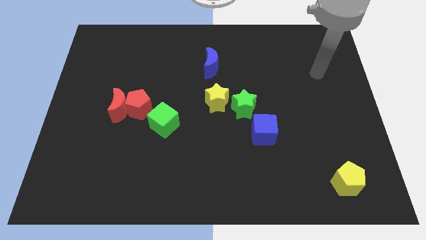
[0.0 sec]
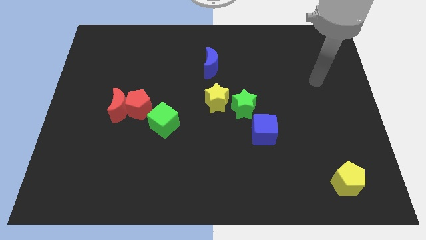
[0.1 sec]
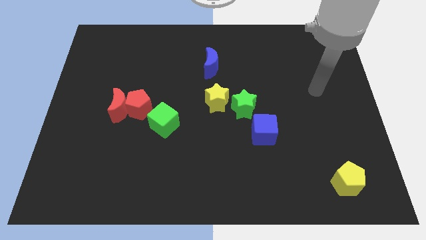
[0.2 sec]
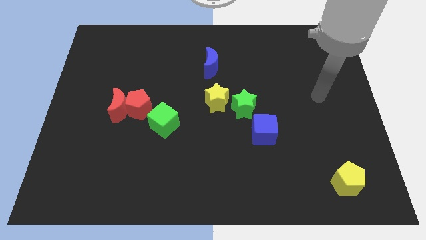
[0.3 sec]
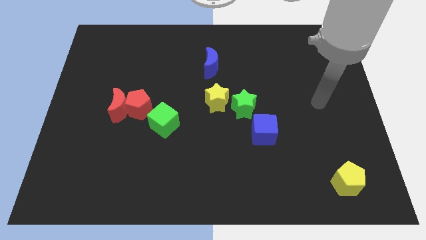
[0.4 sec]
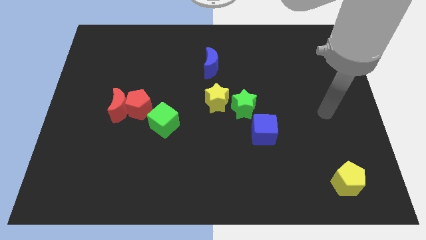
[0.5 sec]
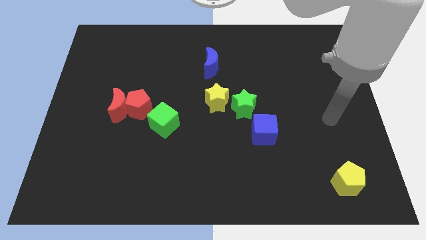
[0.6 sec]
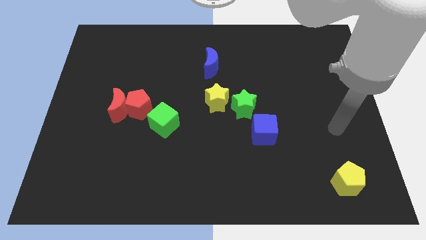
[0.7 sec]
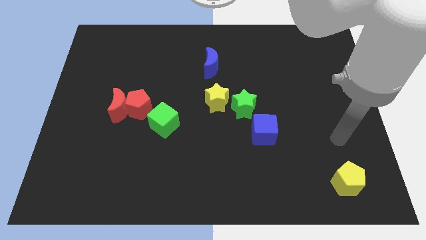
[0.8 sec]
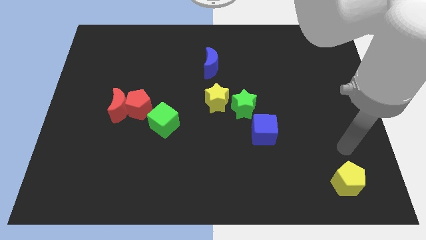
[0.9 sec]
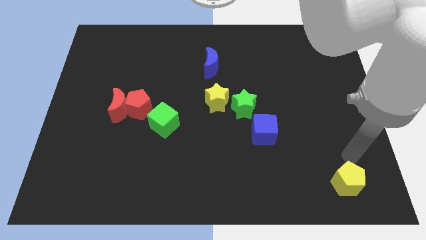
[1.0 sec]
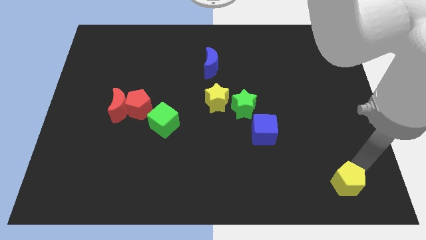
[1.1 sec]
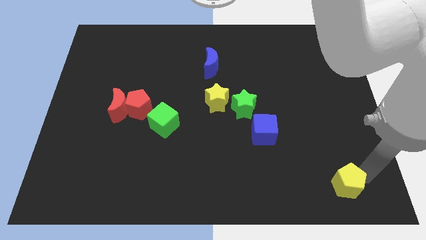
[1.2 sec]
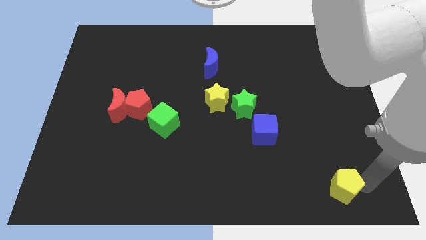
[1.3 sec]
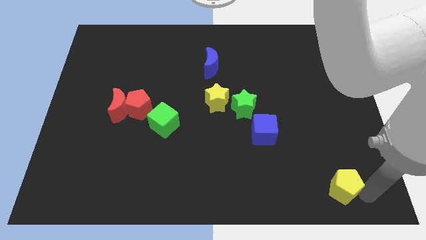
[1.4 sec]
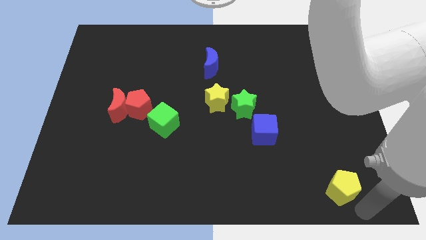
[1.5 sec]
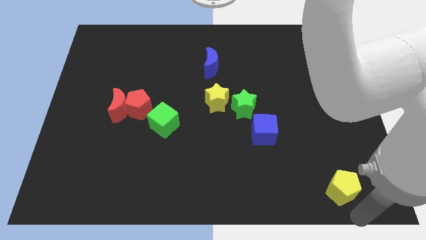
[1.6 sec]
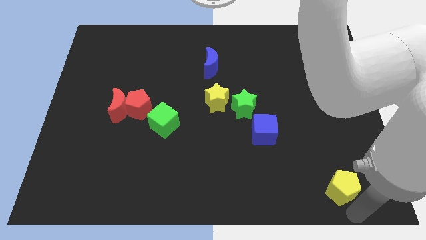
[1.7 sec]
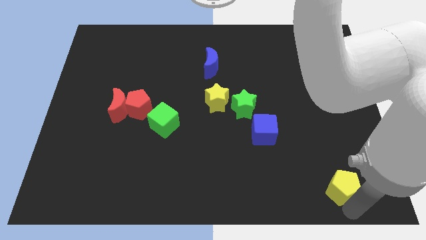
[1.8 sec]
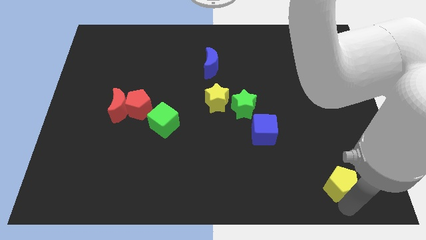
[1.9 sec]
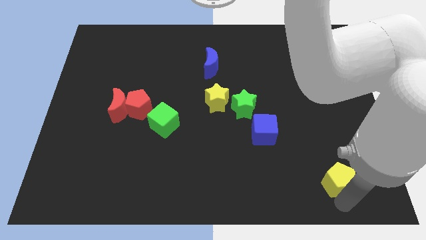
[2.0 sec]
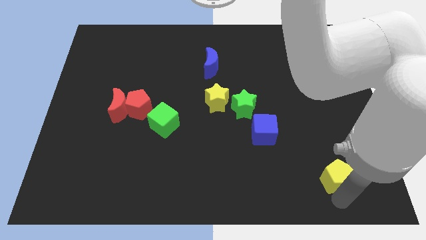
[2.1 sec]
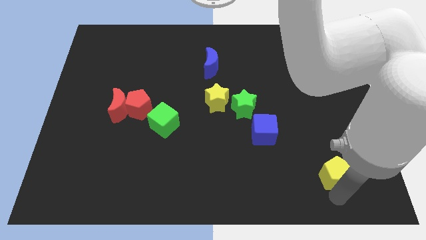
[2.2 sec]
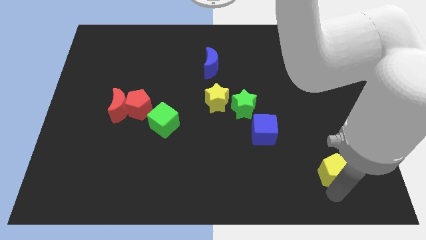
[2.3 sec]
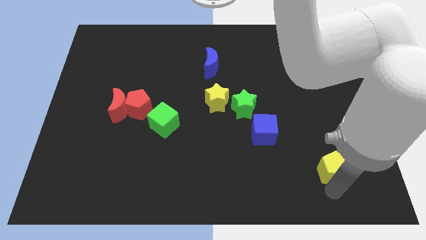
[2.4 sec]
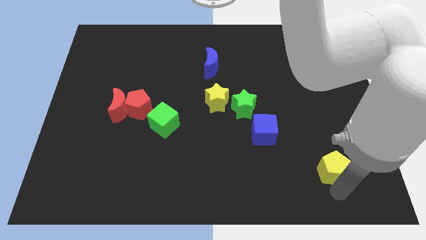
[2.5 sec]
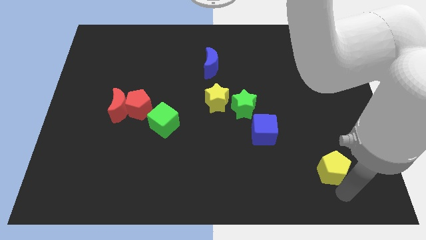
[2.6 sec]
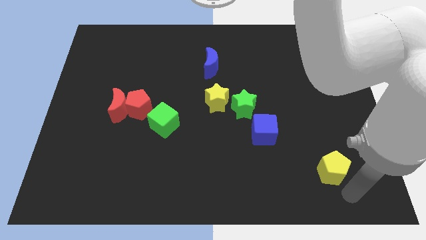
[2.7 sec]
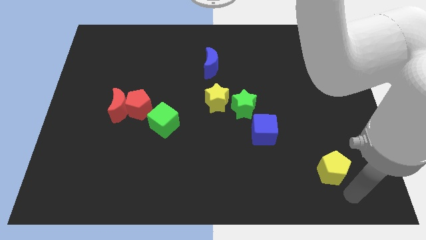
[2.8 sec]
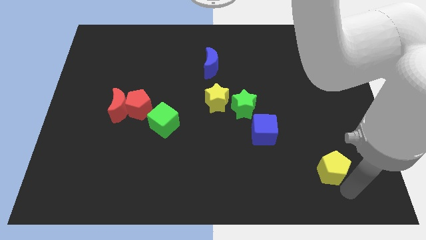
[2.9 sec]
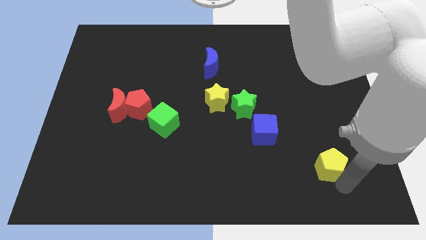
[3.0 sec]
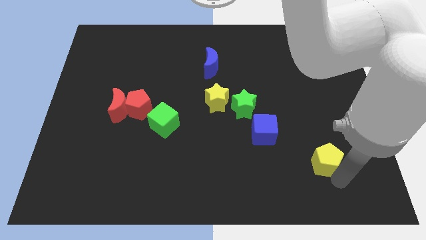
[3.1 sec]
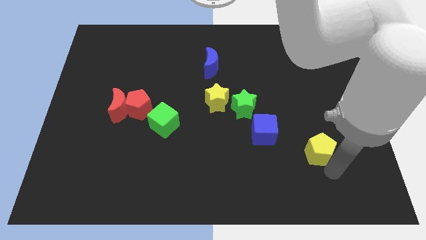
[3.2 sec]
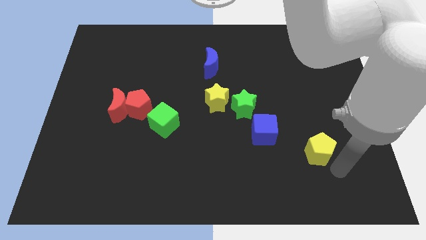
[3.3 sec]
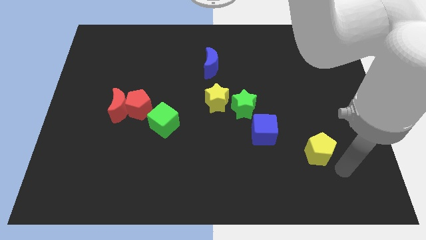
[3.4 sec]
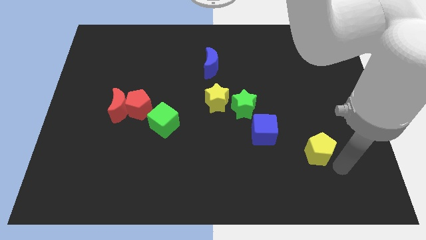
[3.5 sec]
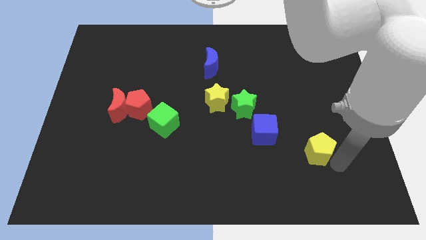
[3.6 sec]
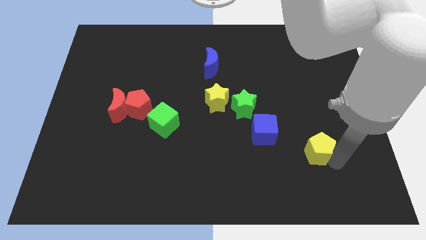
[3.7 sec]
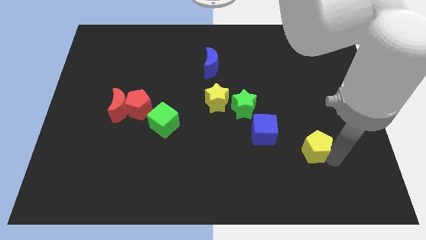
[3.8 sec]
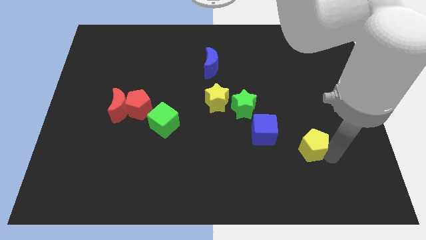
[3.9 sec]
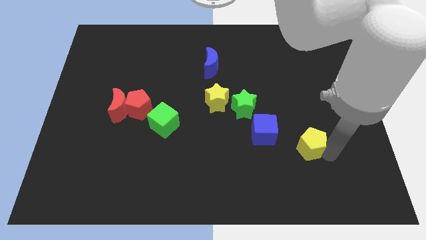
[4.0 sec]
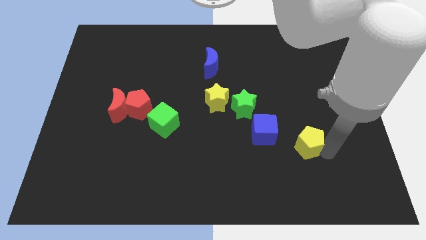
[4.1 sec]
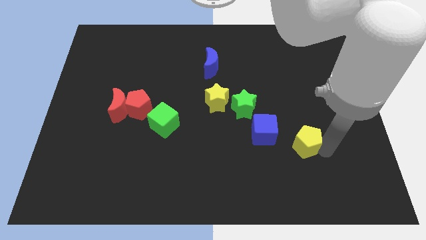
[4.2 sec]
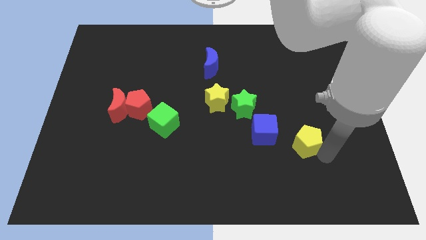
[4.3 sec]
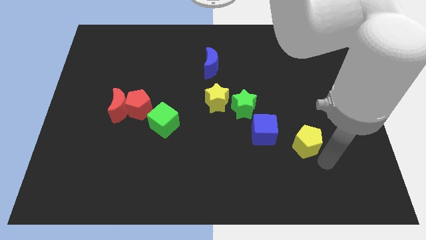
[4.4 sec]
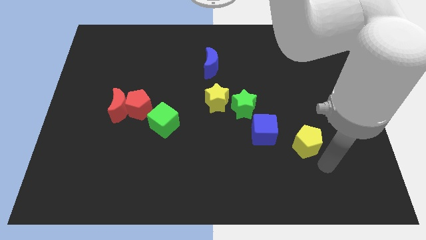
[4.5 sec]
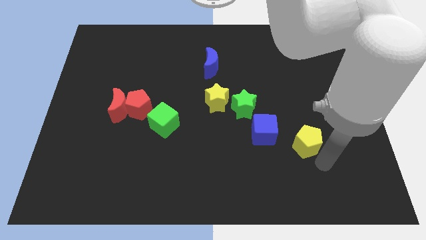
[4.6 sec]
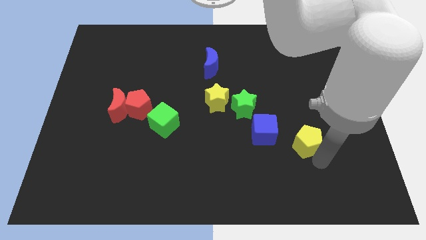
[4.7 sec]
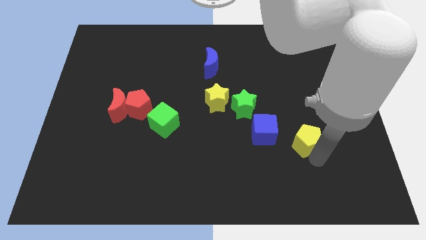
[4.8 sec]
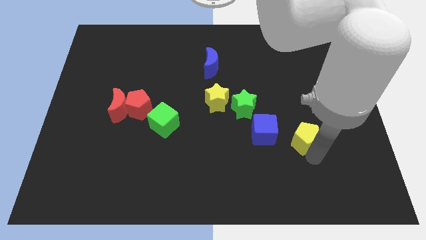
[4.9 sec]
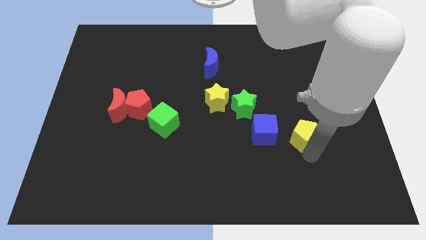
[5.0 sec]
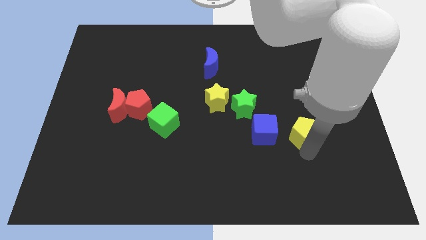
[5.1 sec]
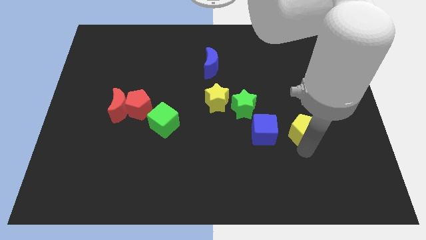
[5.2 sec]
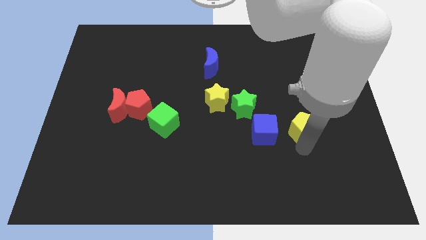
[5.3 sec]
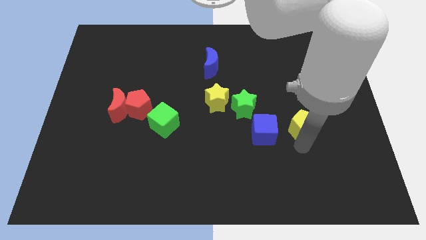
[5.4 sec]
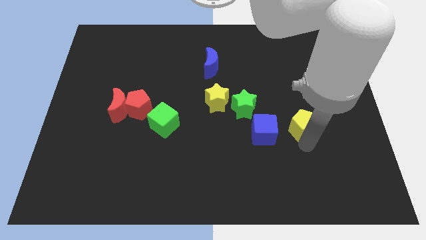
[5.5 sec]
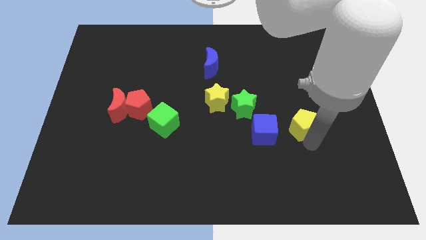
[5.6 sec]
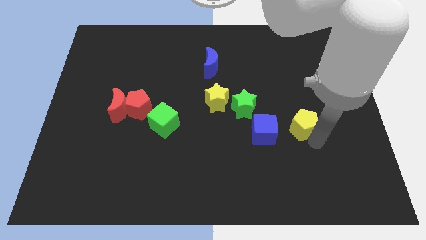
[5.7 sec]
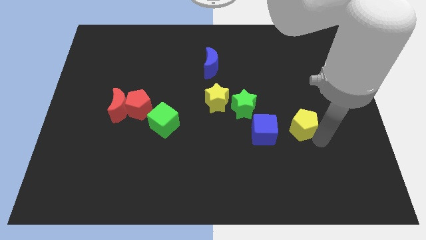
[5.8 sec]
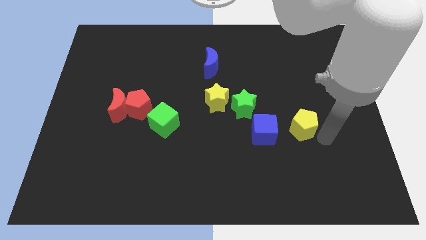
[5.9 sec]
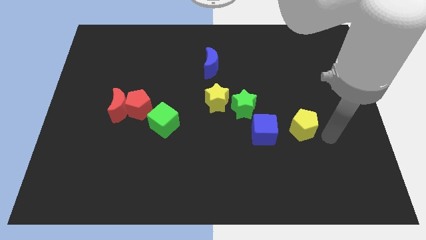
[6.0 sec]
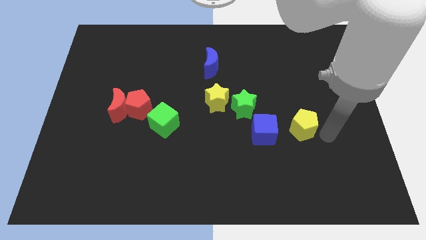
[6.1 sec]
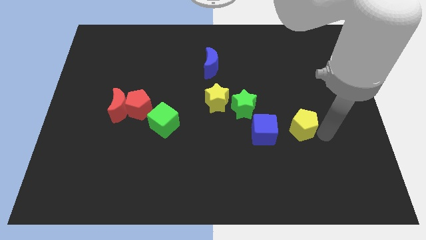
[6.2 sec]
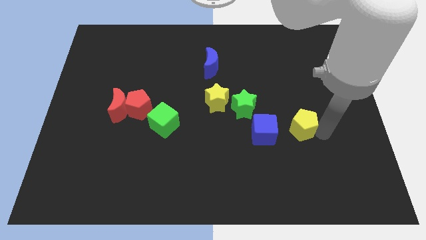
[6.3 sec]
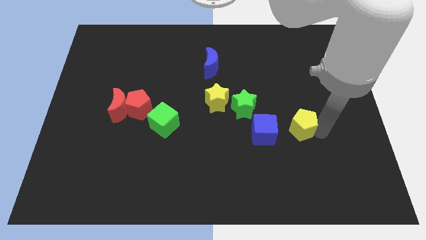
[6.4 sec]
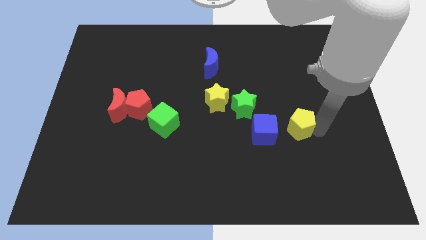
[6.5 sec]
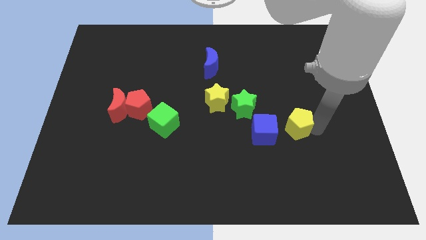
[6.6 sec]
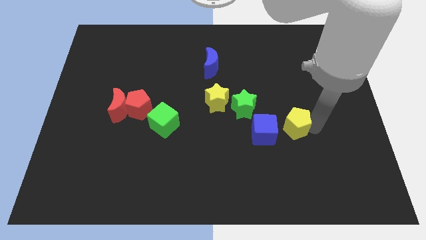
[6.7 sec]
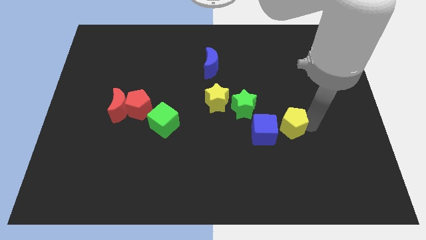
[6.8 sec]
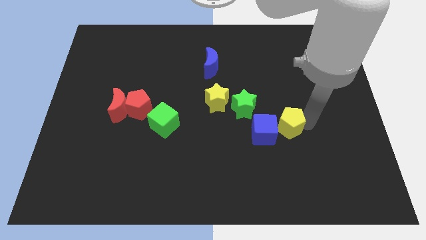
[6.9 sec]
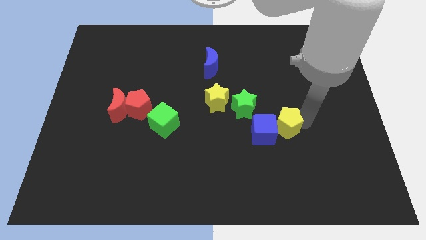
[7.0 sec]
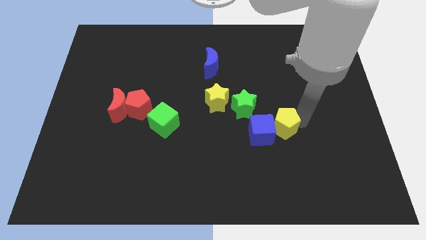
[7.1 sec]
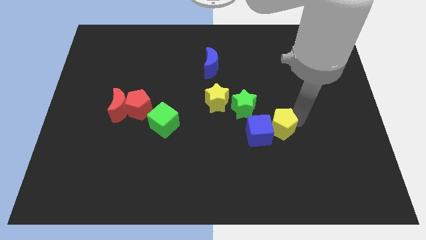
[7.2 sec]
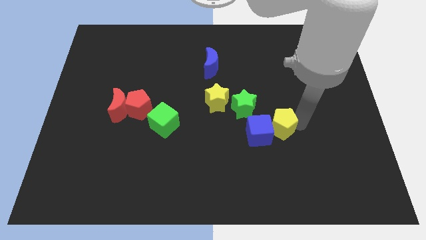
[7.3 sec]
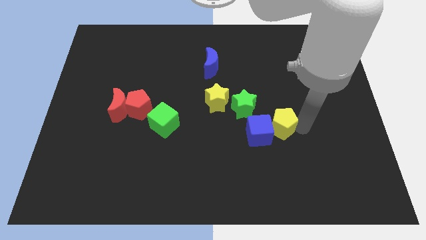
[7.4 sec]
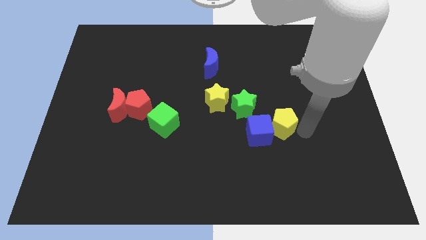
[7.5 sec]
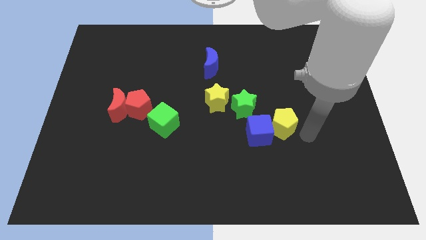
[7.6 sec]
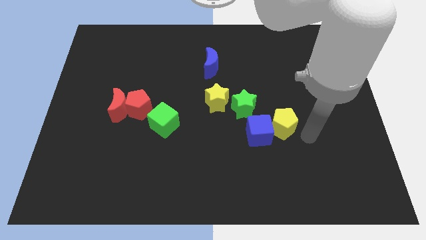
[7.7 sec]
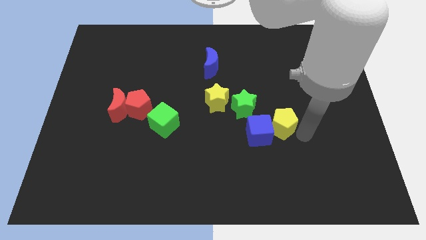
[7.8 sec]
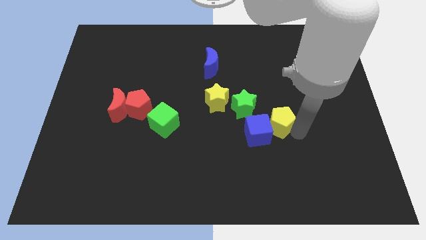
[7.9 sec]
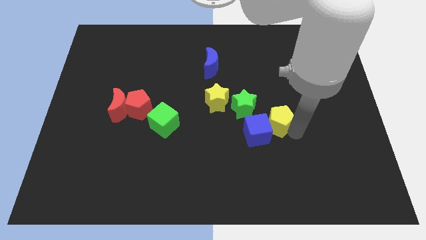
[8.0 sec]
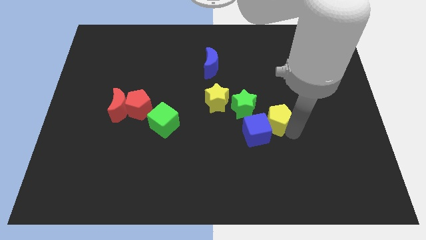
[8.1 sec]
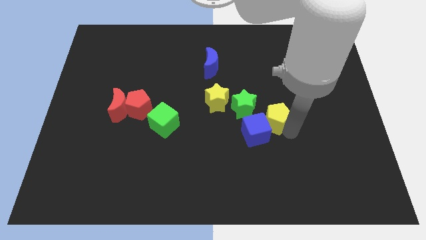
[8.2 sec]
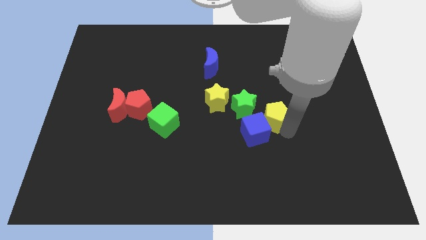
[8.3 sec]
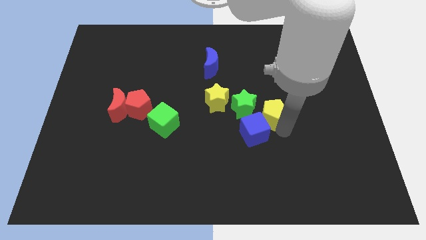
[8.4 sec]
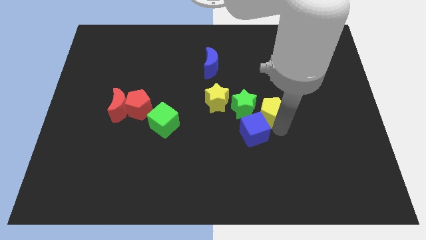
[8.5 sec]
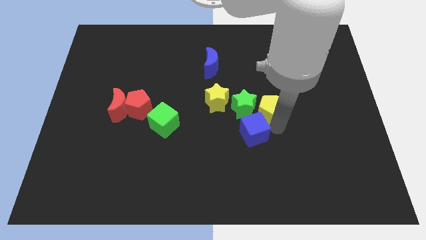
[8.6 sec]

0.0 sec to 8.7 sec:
move the yellow pentagon to the green star
